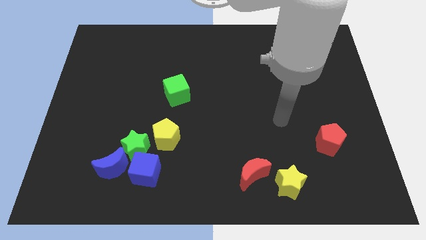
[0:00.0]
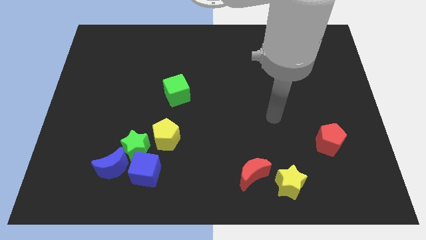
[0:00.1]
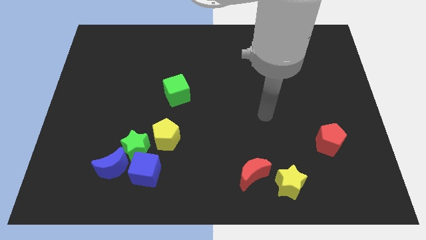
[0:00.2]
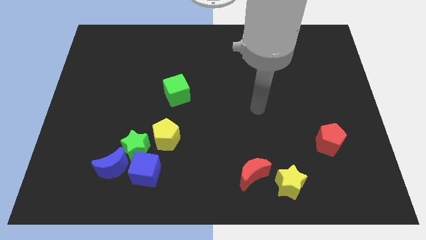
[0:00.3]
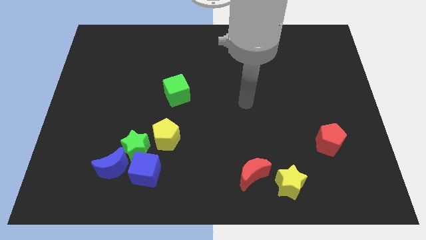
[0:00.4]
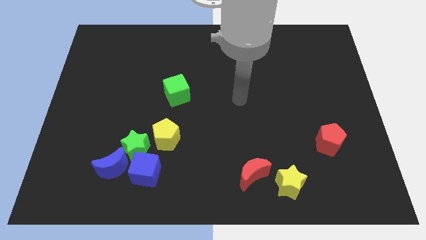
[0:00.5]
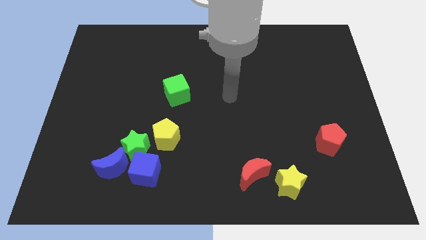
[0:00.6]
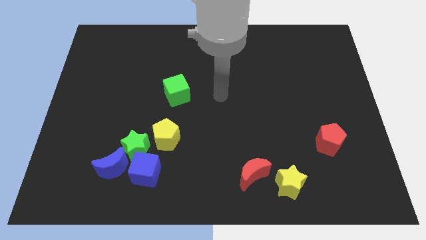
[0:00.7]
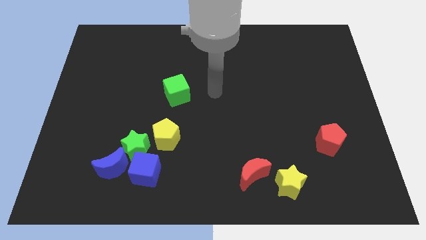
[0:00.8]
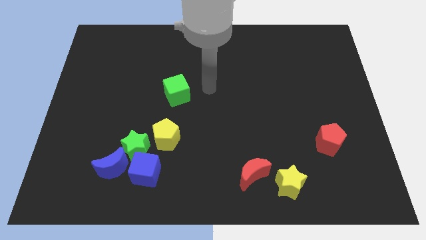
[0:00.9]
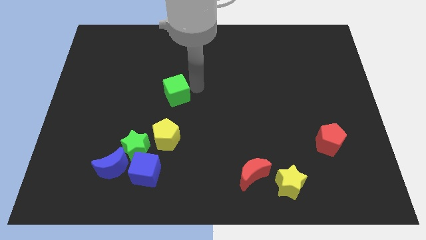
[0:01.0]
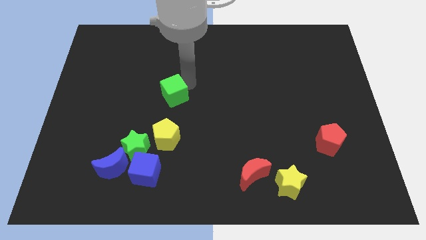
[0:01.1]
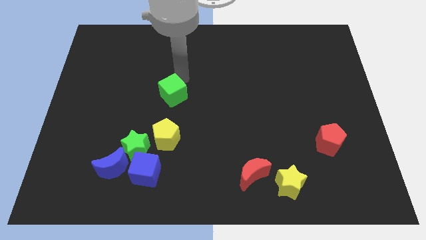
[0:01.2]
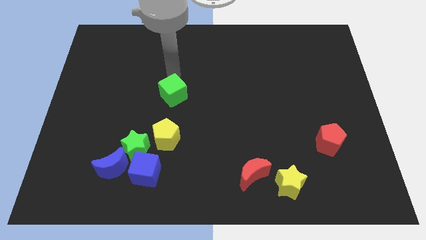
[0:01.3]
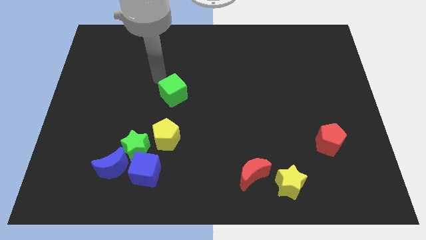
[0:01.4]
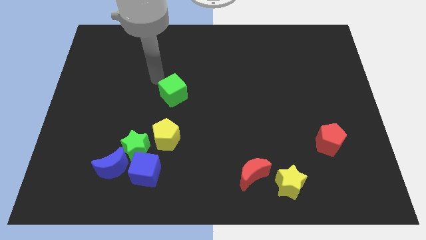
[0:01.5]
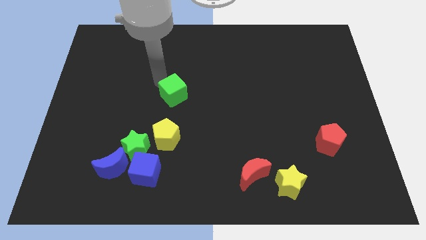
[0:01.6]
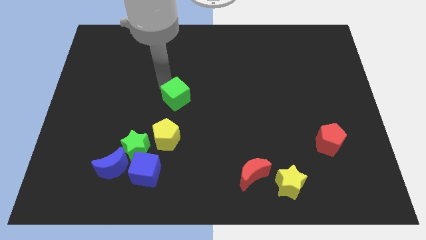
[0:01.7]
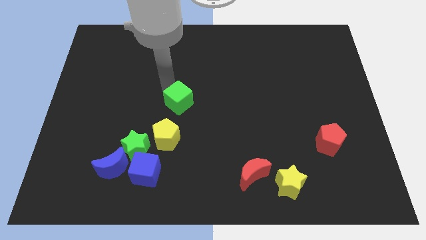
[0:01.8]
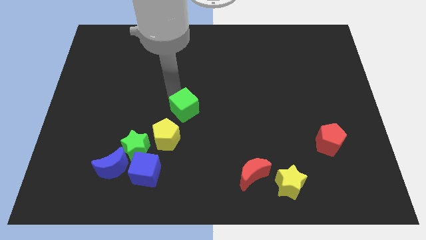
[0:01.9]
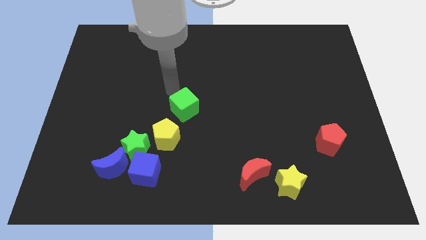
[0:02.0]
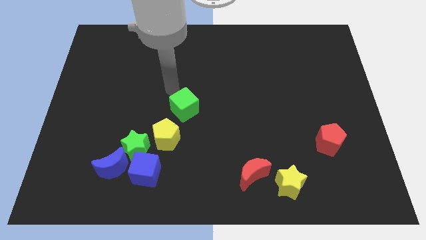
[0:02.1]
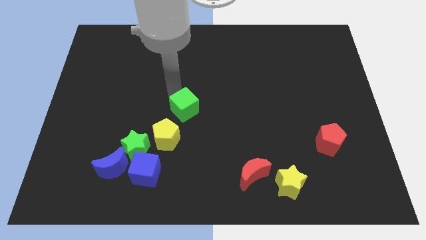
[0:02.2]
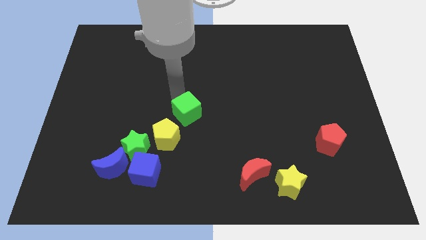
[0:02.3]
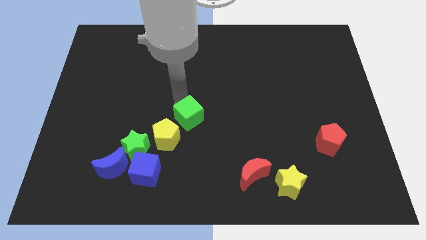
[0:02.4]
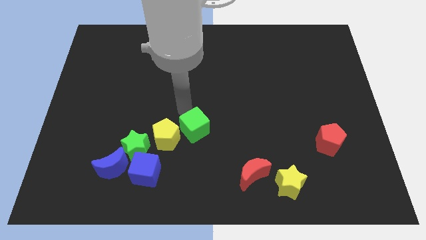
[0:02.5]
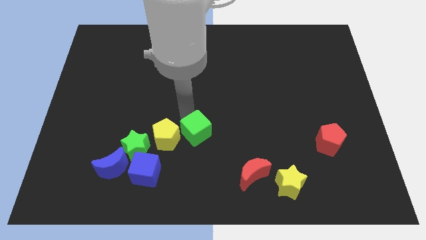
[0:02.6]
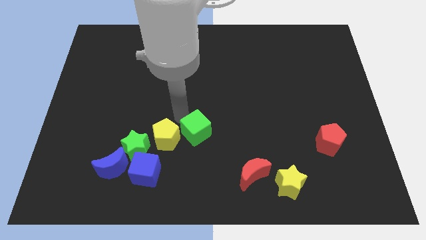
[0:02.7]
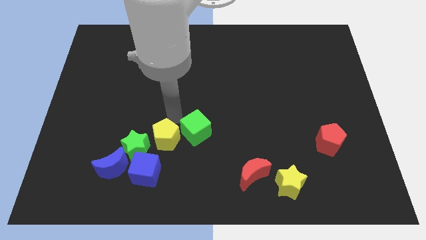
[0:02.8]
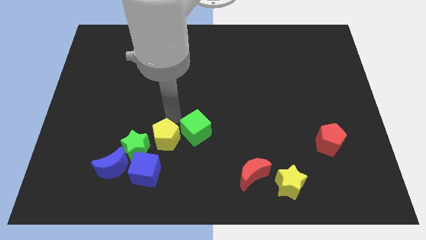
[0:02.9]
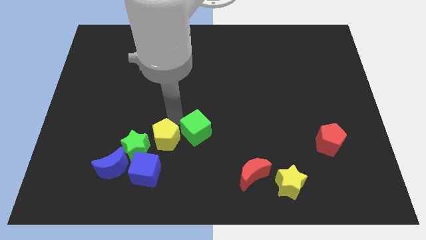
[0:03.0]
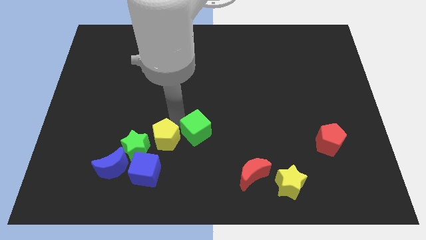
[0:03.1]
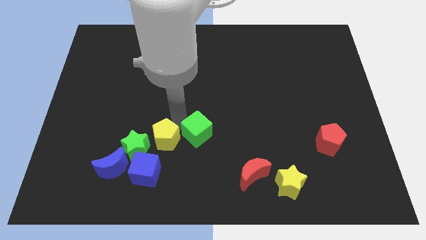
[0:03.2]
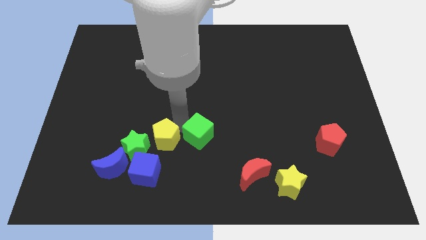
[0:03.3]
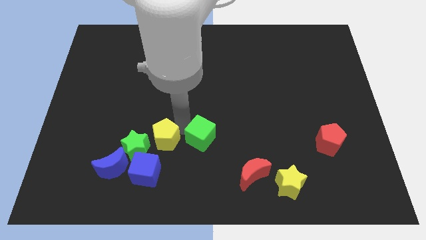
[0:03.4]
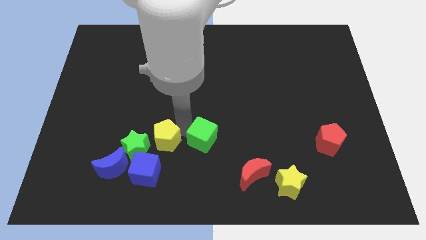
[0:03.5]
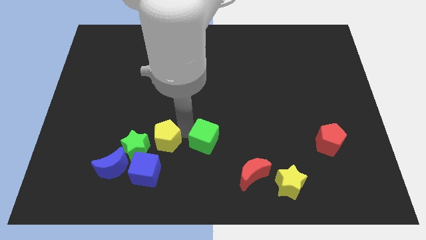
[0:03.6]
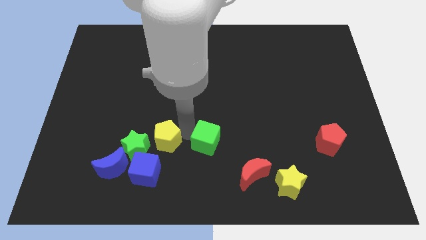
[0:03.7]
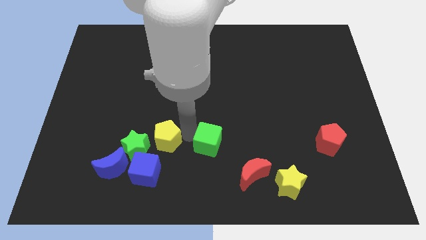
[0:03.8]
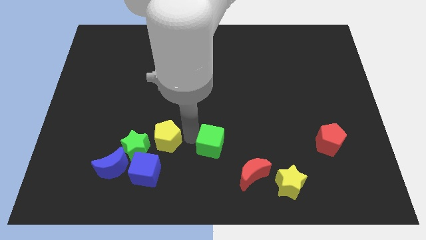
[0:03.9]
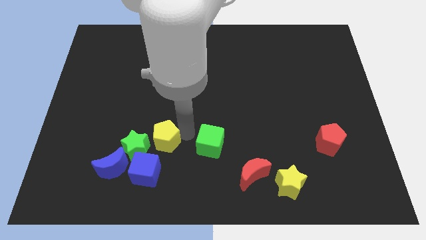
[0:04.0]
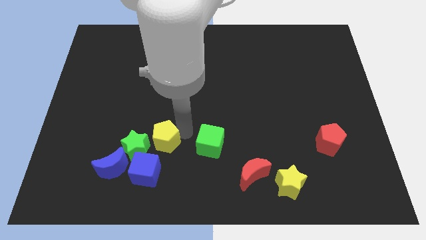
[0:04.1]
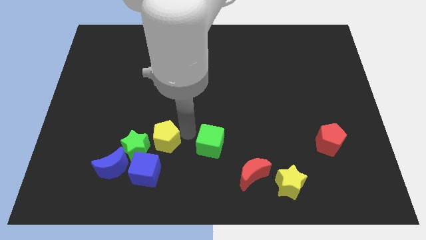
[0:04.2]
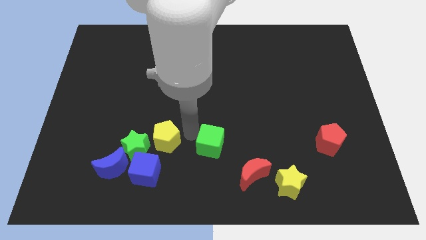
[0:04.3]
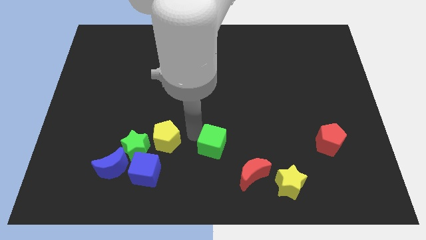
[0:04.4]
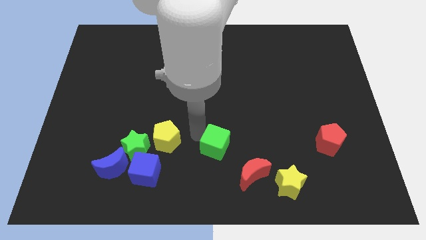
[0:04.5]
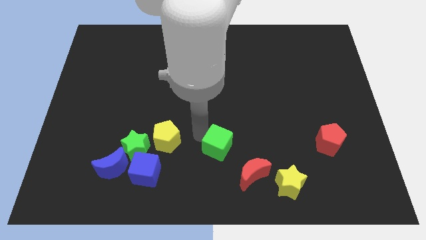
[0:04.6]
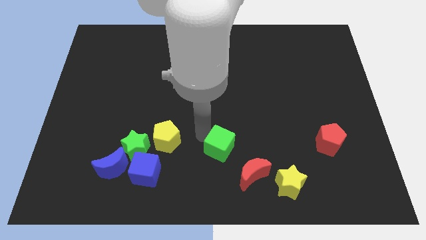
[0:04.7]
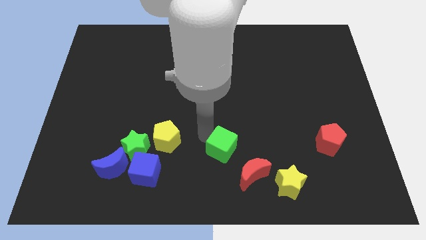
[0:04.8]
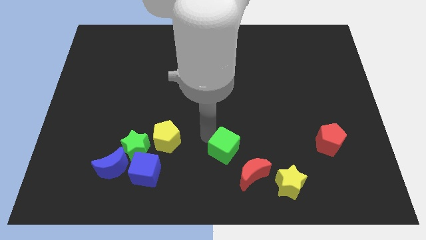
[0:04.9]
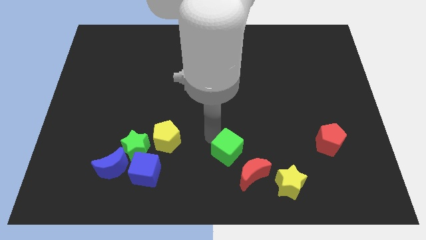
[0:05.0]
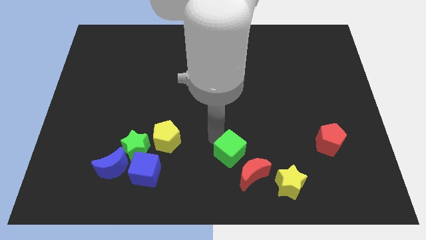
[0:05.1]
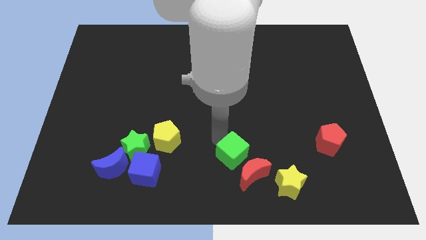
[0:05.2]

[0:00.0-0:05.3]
push the green cube next to the red moon

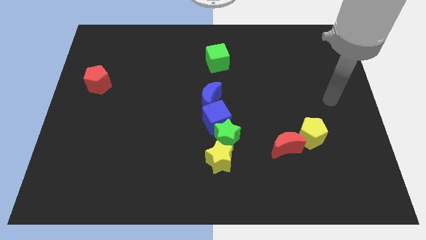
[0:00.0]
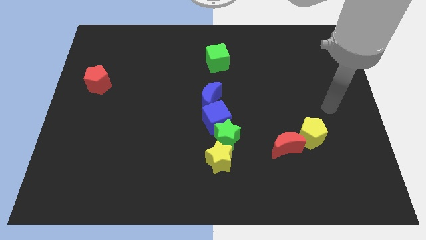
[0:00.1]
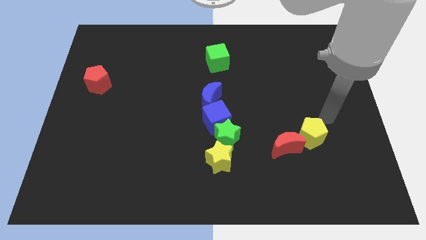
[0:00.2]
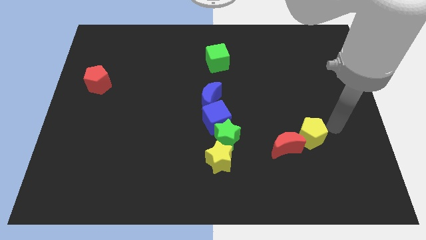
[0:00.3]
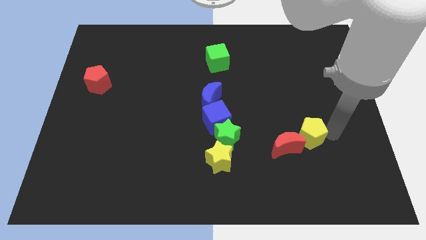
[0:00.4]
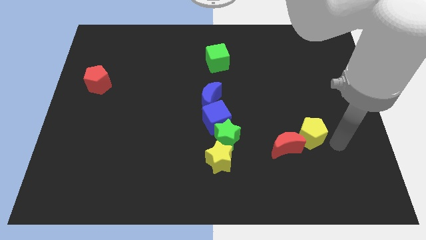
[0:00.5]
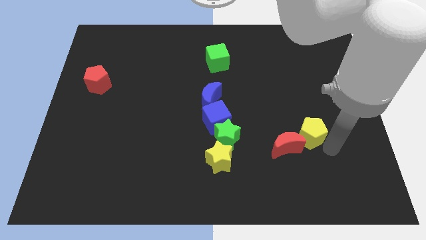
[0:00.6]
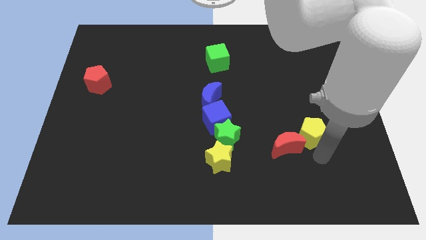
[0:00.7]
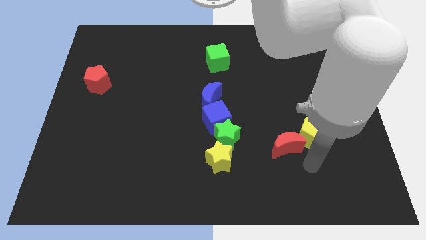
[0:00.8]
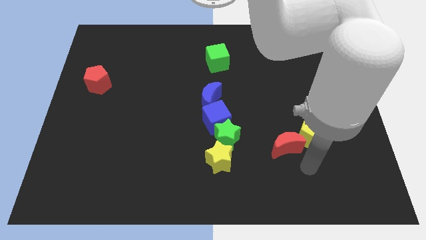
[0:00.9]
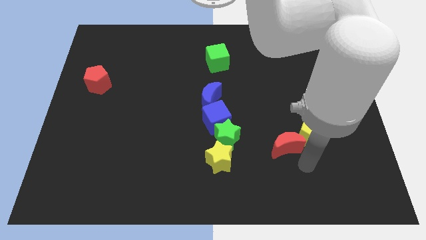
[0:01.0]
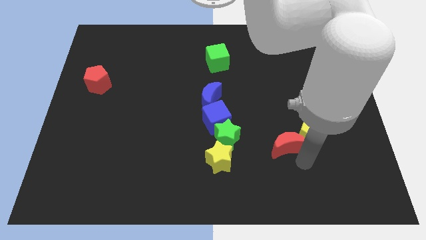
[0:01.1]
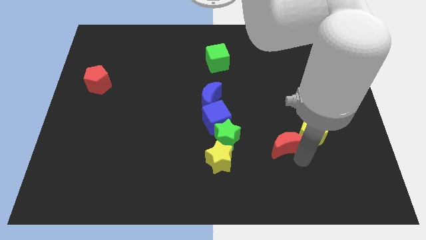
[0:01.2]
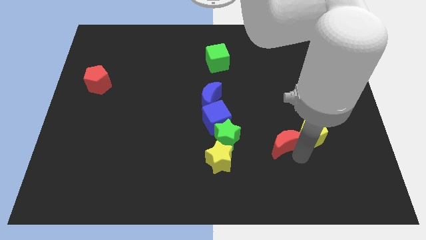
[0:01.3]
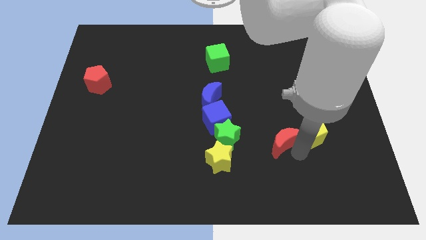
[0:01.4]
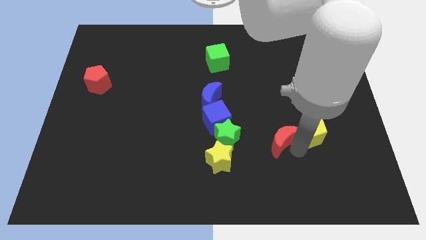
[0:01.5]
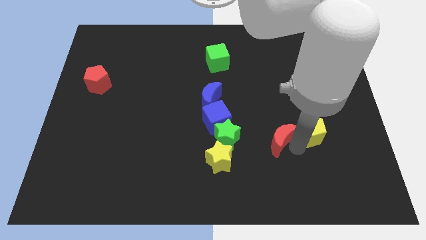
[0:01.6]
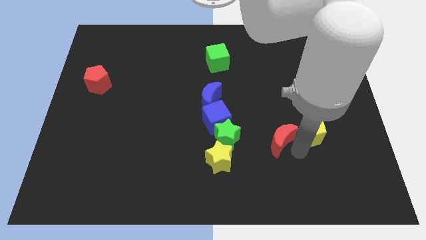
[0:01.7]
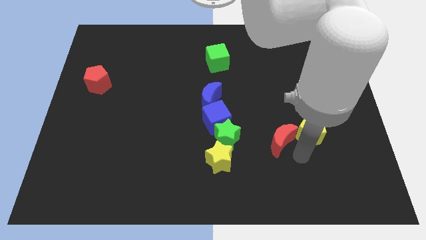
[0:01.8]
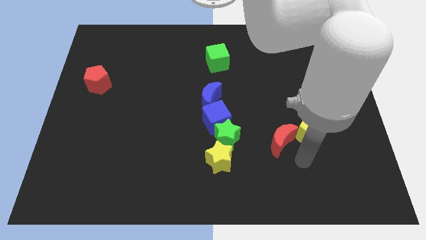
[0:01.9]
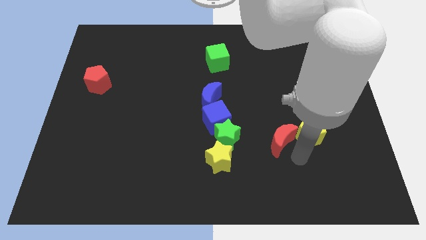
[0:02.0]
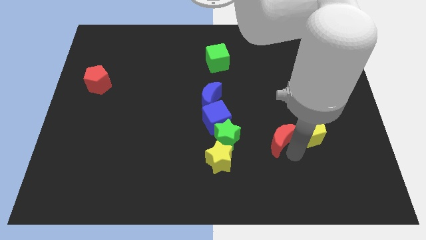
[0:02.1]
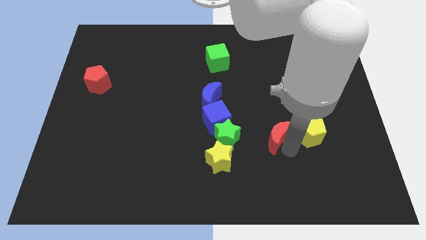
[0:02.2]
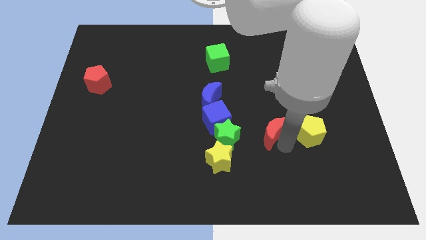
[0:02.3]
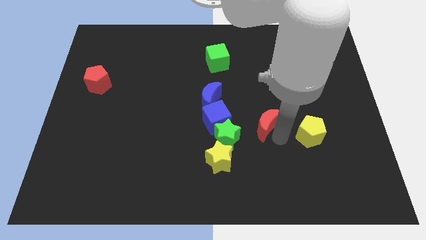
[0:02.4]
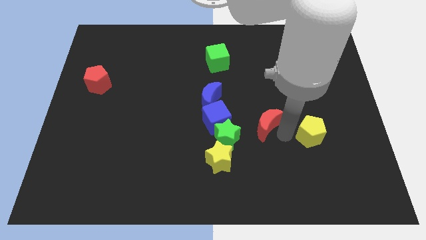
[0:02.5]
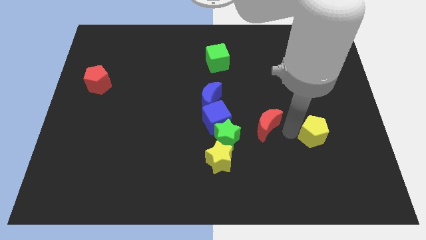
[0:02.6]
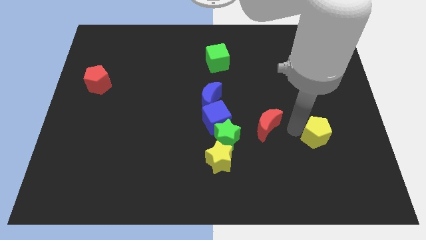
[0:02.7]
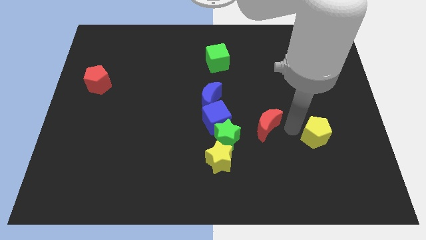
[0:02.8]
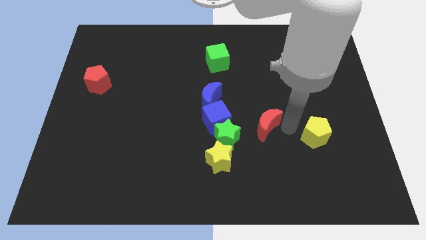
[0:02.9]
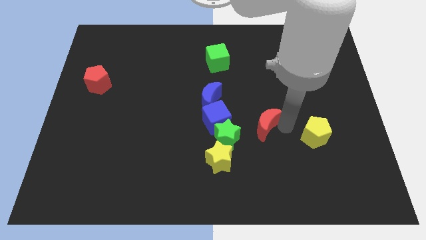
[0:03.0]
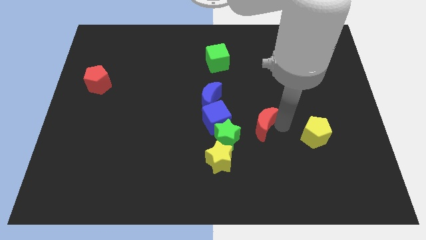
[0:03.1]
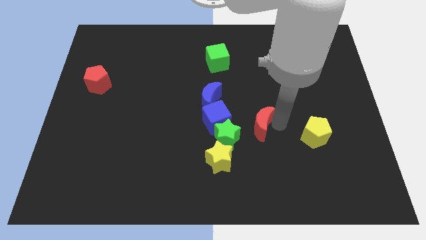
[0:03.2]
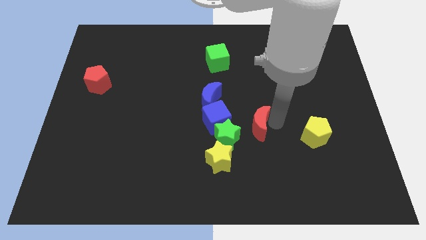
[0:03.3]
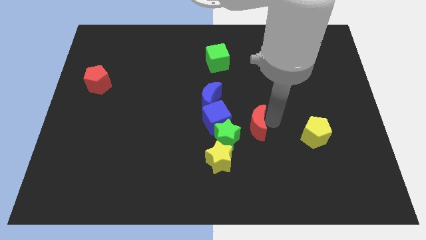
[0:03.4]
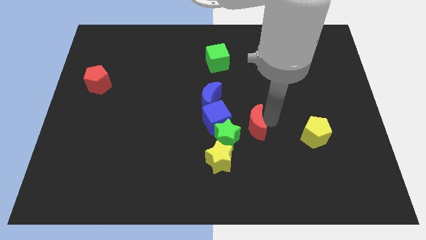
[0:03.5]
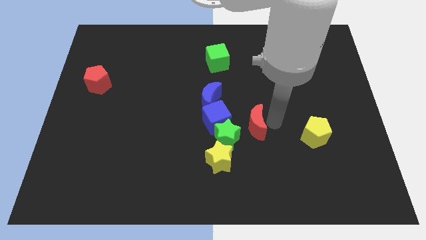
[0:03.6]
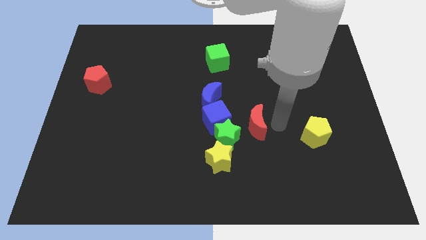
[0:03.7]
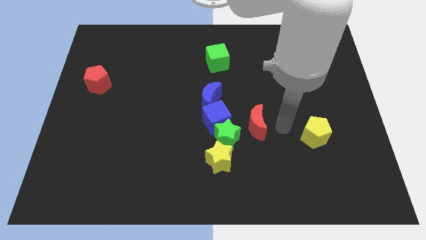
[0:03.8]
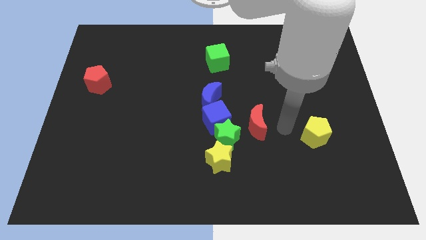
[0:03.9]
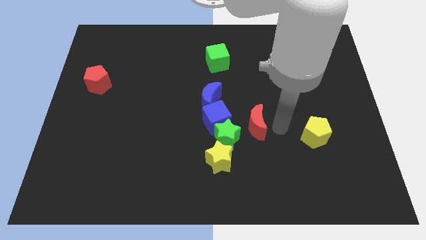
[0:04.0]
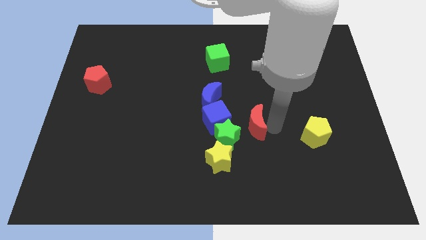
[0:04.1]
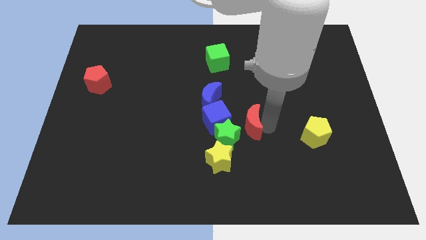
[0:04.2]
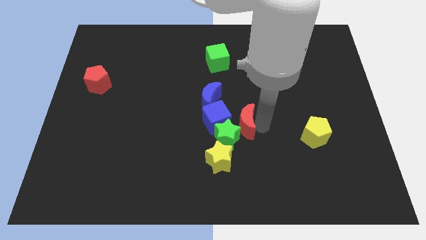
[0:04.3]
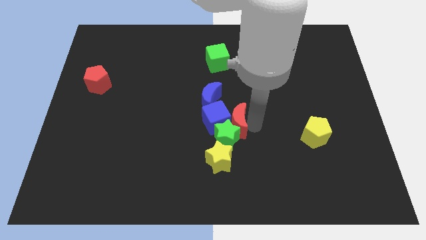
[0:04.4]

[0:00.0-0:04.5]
push the red moon close to the blue cube
